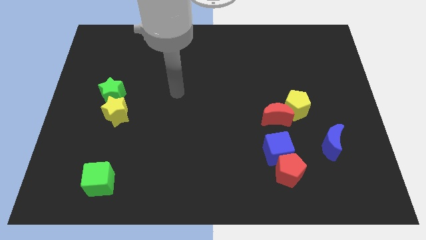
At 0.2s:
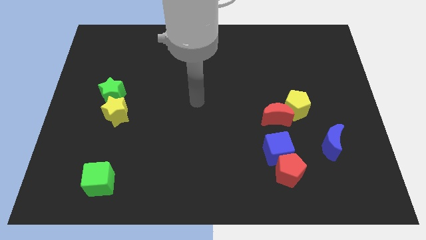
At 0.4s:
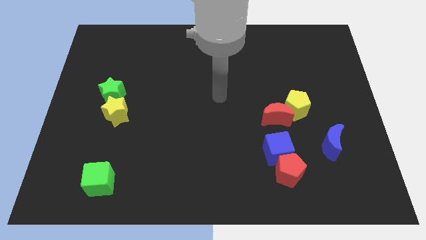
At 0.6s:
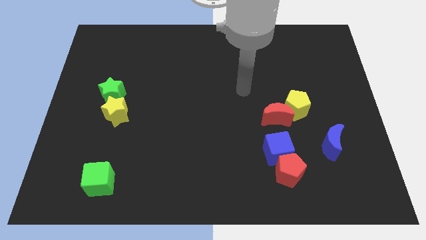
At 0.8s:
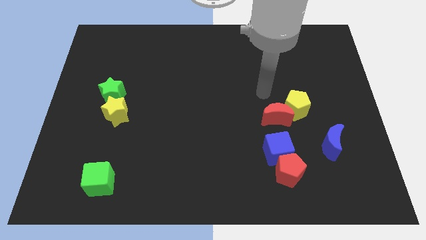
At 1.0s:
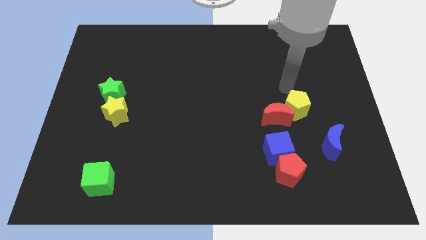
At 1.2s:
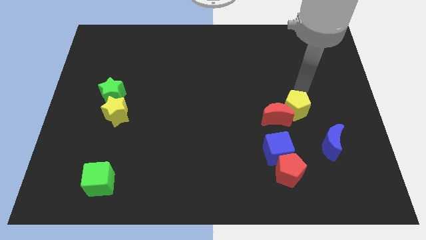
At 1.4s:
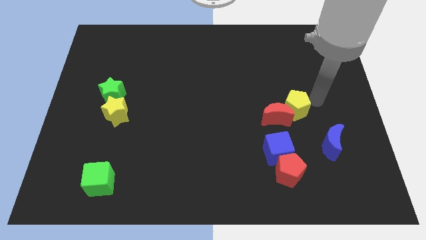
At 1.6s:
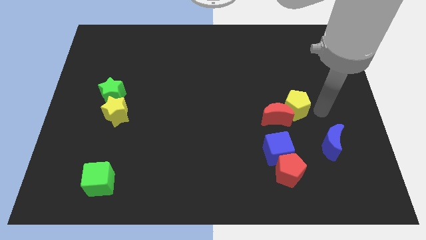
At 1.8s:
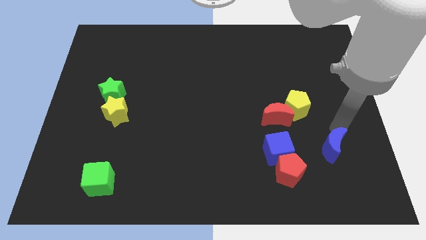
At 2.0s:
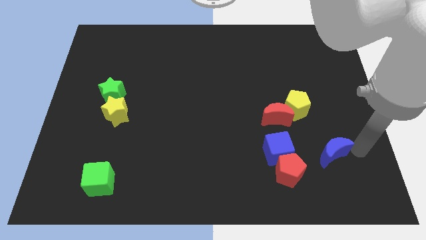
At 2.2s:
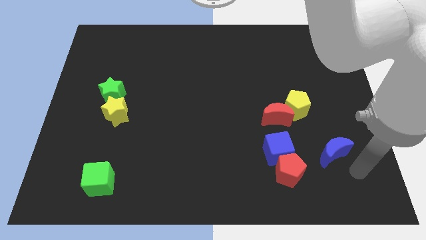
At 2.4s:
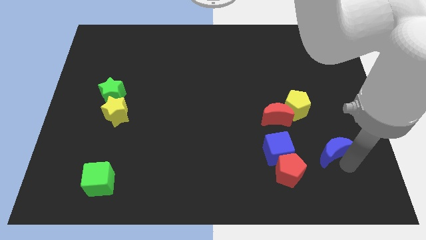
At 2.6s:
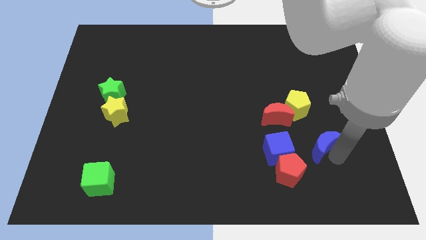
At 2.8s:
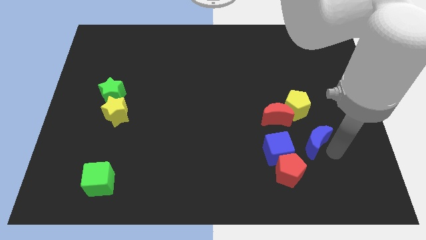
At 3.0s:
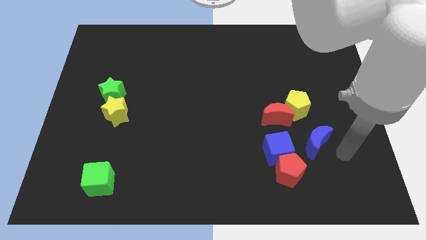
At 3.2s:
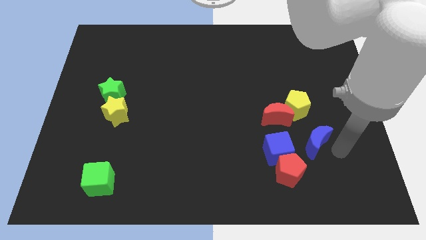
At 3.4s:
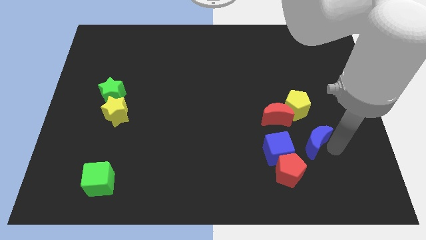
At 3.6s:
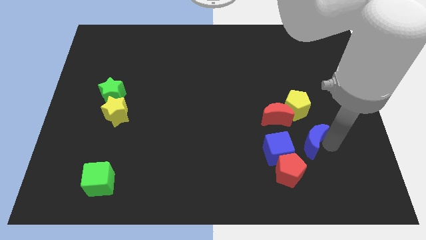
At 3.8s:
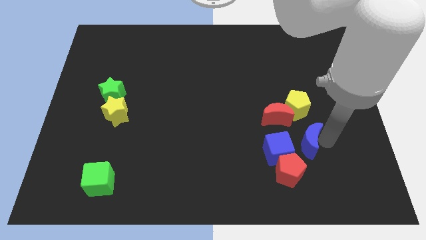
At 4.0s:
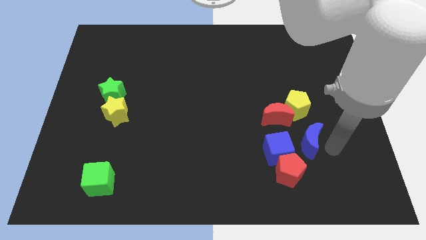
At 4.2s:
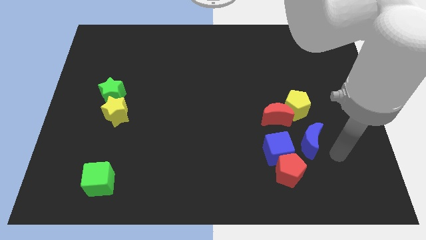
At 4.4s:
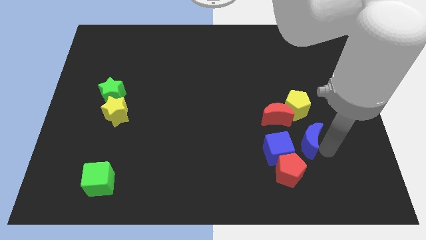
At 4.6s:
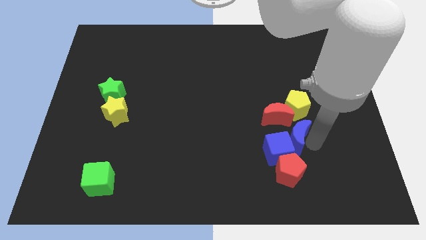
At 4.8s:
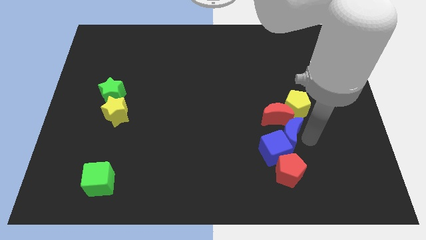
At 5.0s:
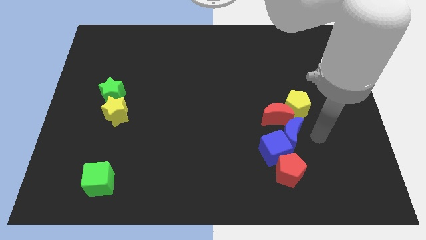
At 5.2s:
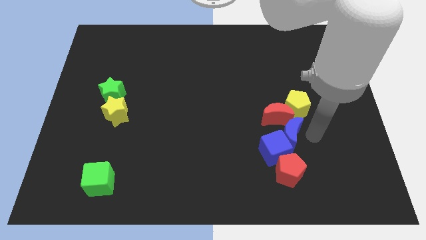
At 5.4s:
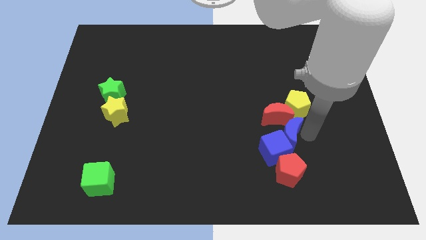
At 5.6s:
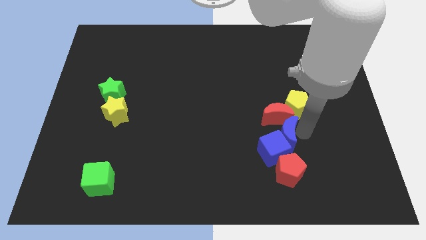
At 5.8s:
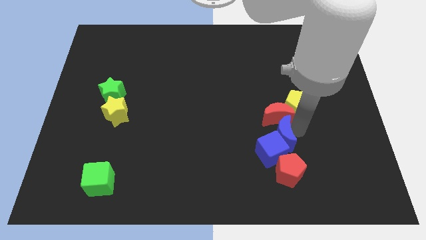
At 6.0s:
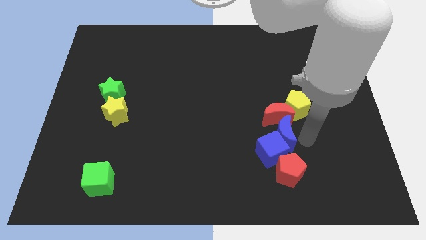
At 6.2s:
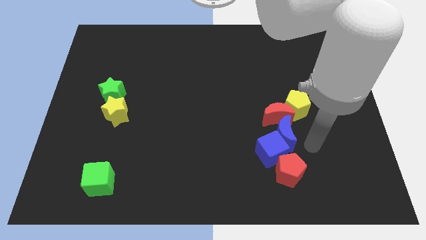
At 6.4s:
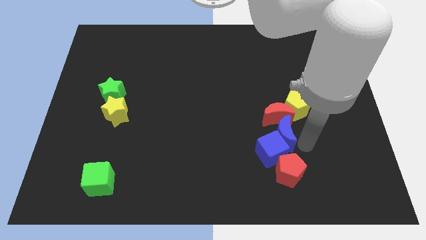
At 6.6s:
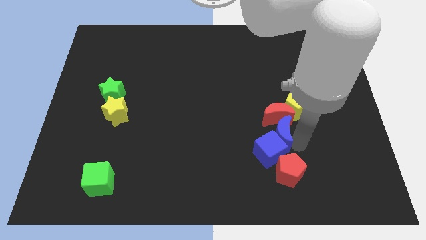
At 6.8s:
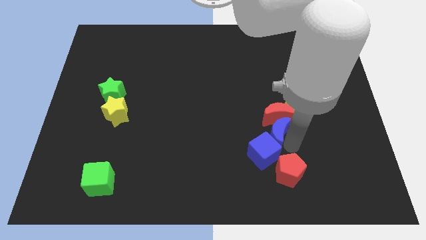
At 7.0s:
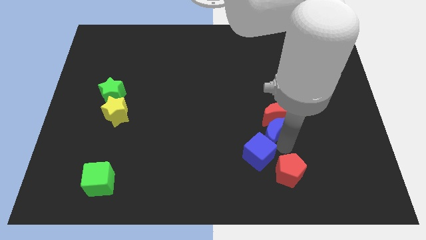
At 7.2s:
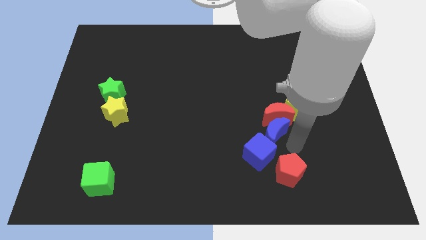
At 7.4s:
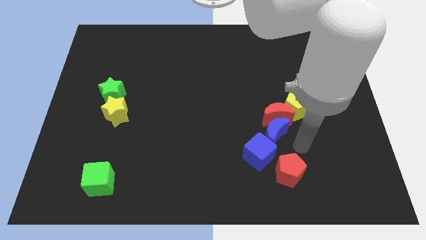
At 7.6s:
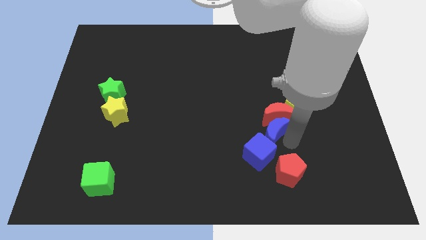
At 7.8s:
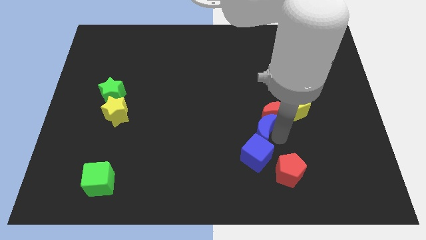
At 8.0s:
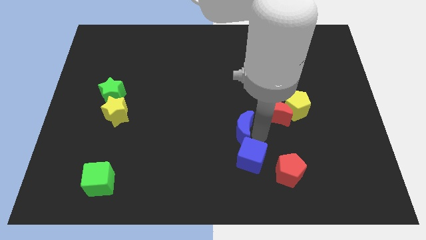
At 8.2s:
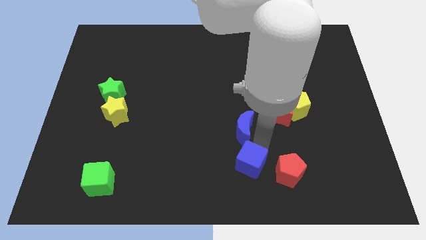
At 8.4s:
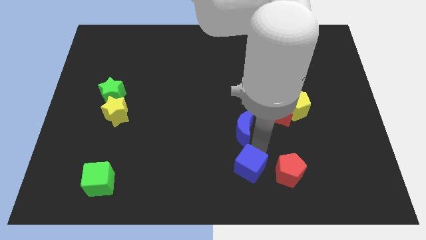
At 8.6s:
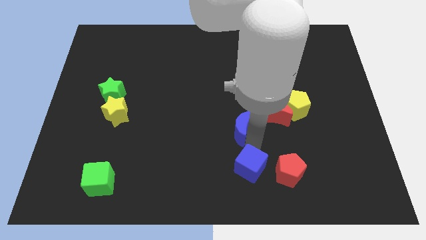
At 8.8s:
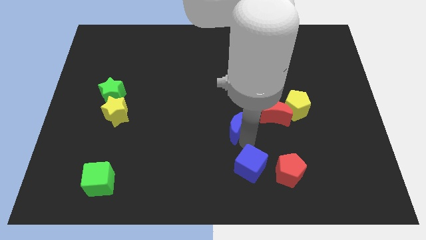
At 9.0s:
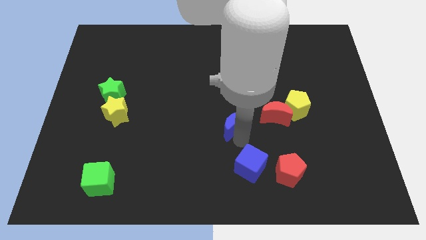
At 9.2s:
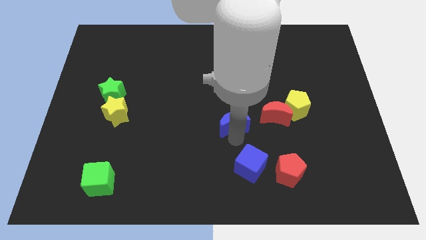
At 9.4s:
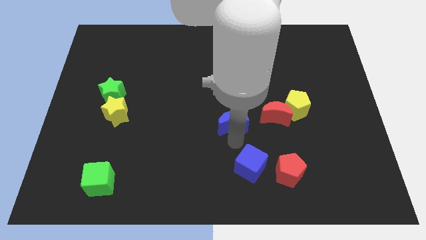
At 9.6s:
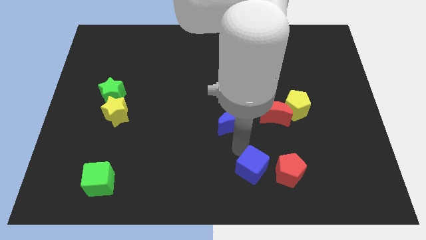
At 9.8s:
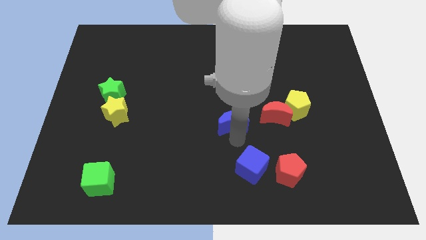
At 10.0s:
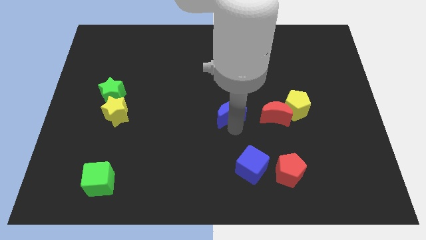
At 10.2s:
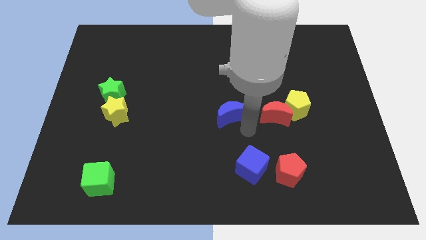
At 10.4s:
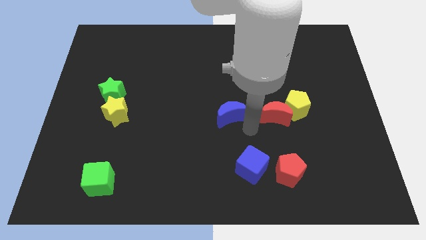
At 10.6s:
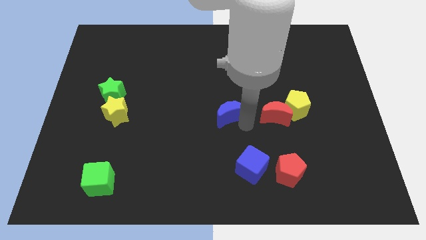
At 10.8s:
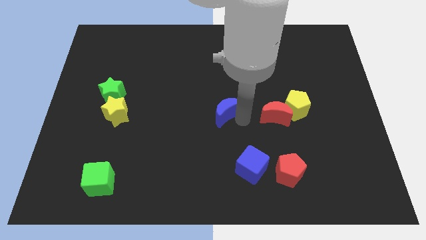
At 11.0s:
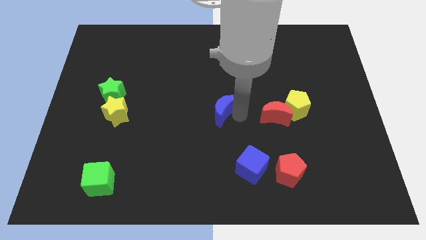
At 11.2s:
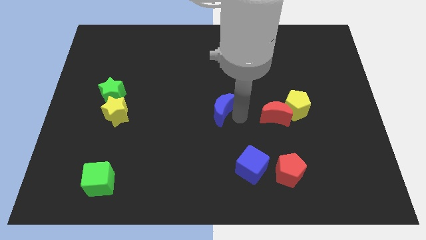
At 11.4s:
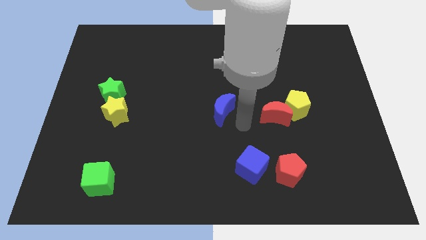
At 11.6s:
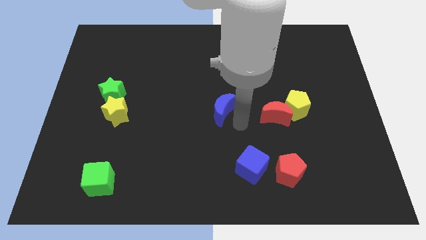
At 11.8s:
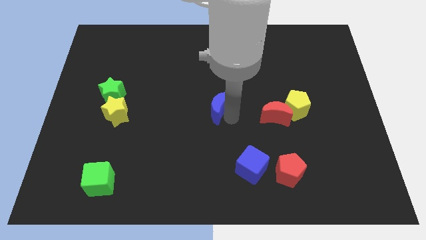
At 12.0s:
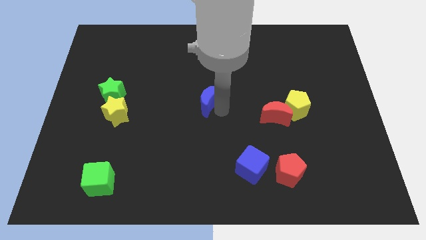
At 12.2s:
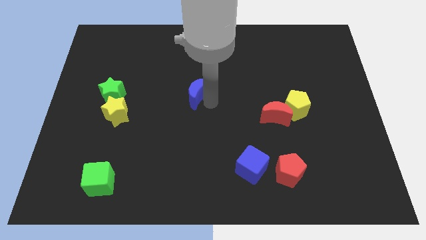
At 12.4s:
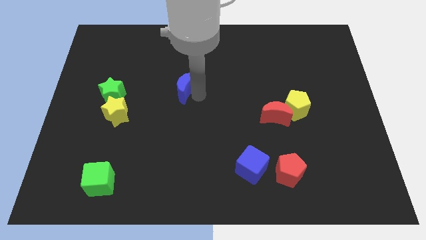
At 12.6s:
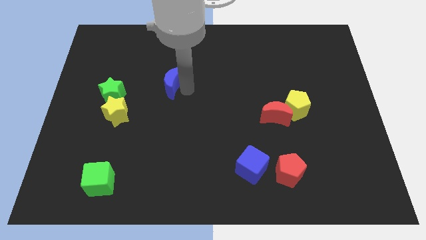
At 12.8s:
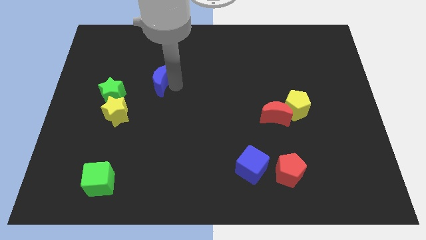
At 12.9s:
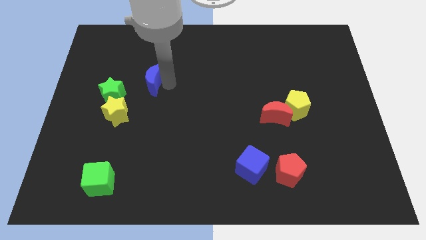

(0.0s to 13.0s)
push the blue moon diagonally up and to the right of the green star

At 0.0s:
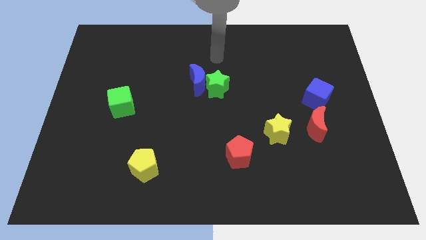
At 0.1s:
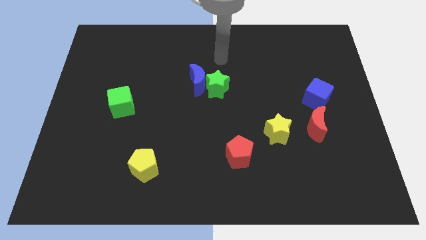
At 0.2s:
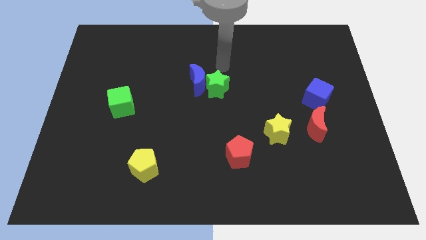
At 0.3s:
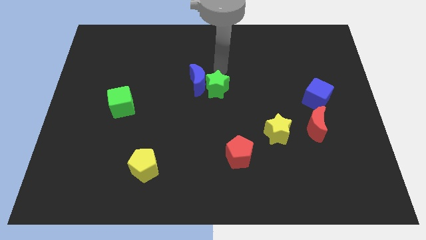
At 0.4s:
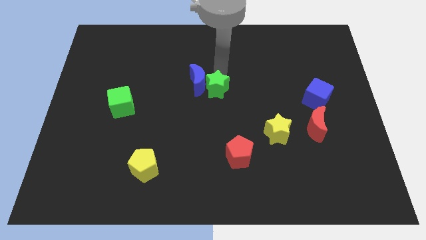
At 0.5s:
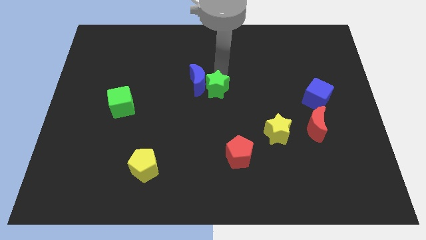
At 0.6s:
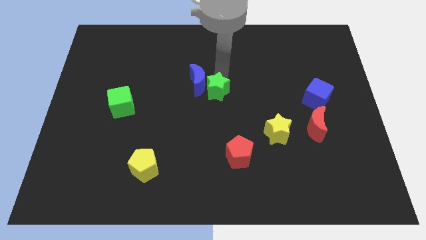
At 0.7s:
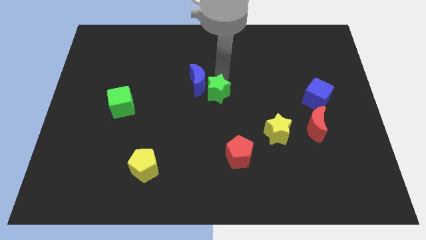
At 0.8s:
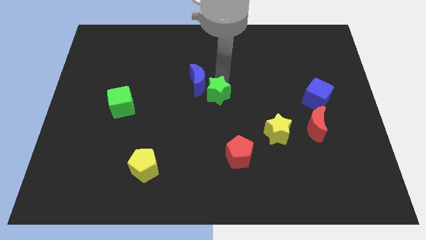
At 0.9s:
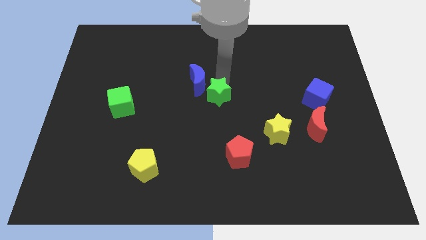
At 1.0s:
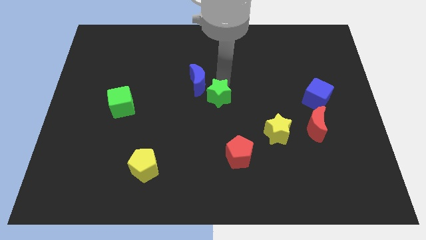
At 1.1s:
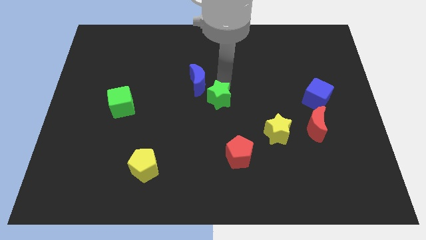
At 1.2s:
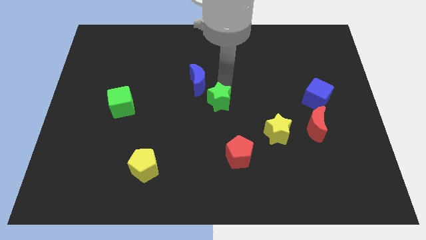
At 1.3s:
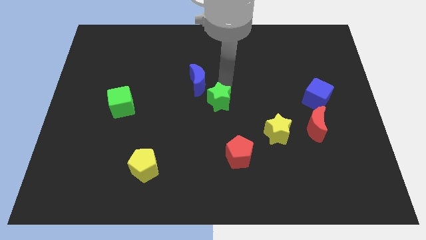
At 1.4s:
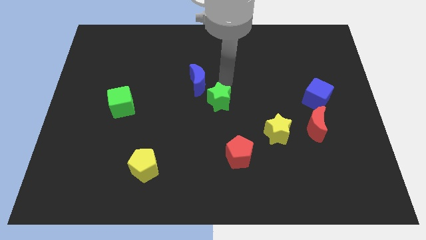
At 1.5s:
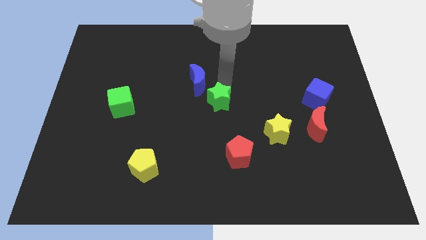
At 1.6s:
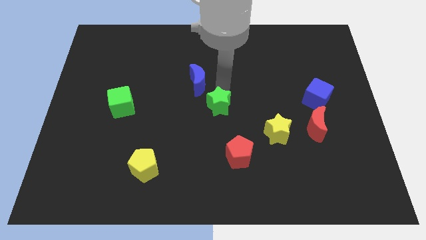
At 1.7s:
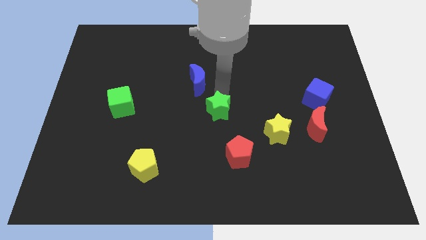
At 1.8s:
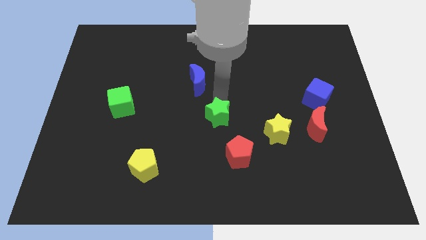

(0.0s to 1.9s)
put the green star to the top left of the red pentagon
